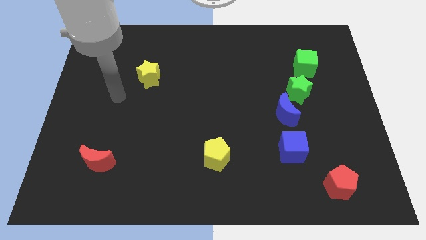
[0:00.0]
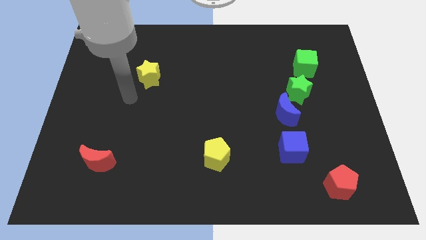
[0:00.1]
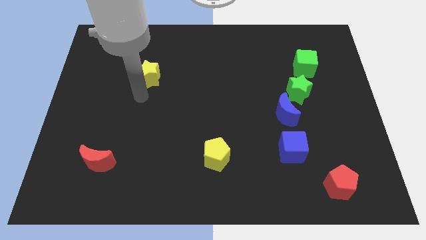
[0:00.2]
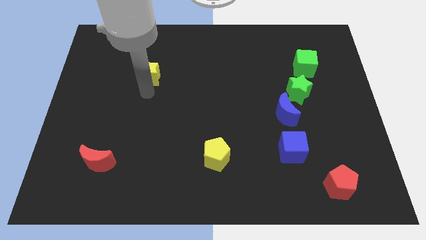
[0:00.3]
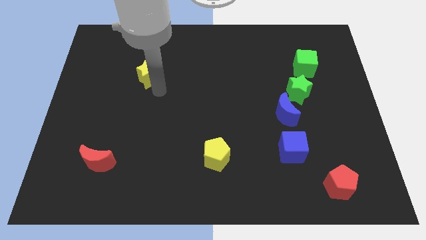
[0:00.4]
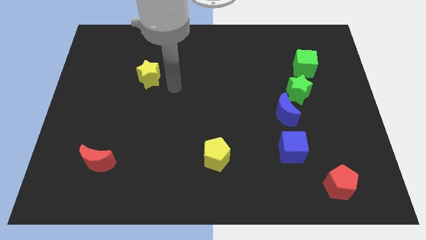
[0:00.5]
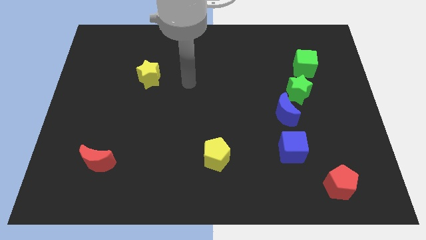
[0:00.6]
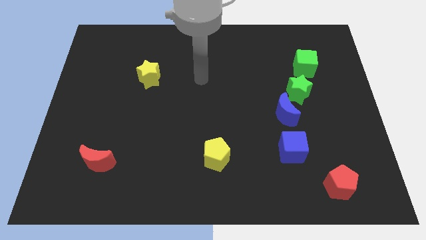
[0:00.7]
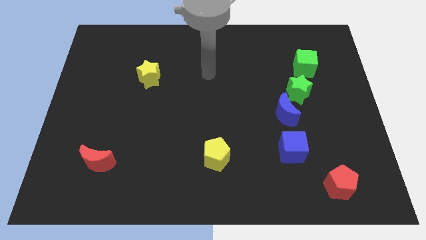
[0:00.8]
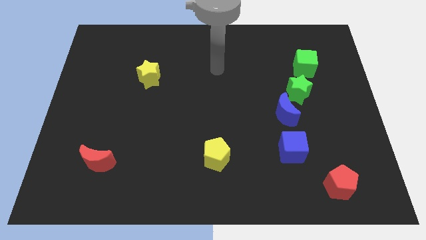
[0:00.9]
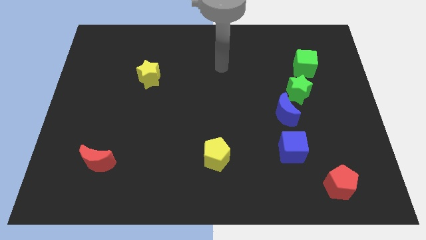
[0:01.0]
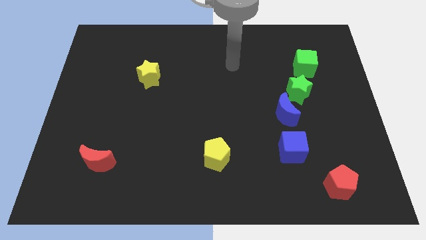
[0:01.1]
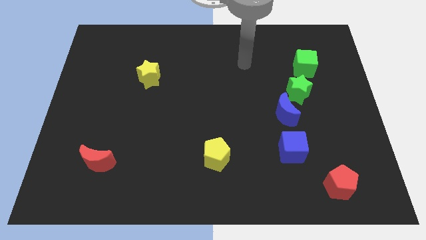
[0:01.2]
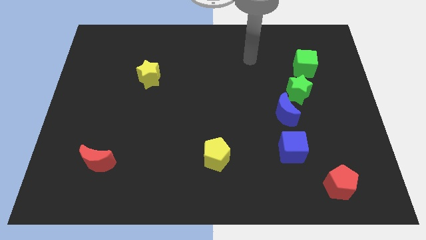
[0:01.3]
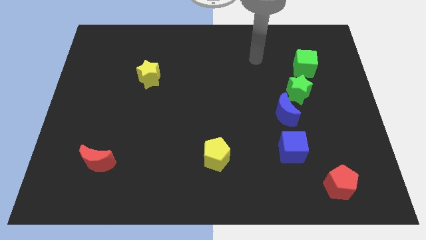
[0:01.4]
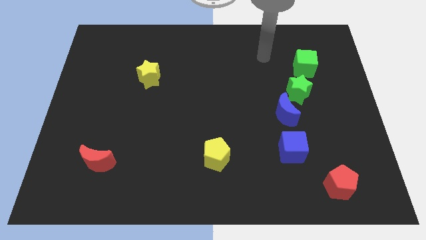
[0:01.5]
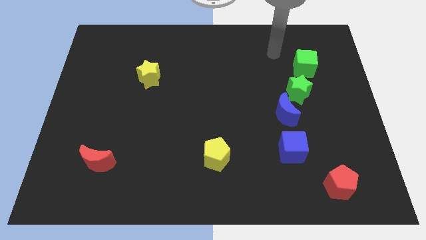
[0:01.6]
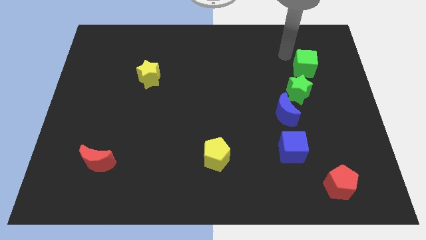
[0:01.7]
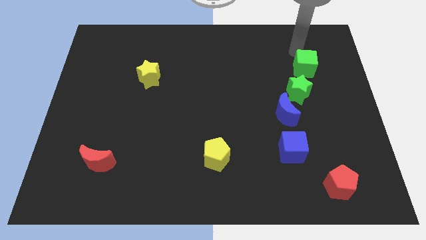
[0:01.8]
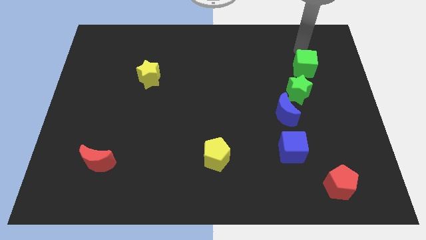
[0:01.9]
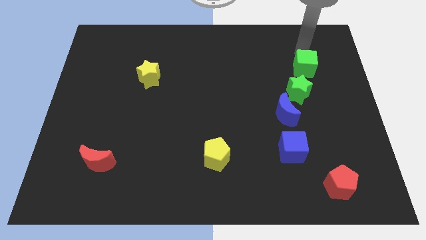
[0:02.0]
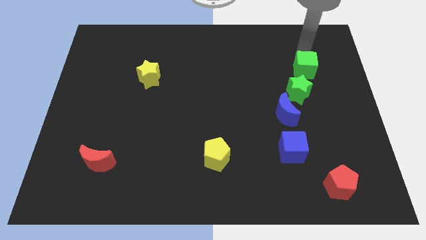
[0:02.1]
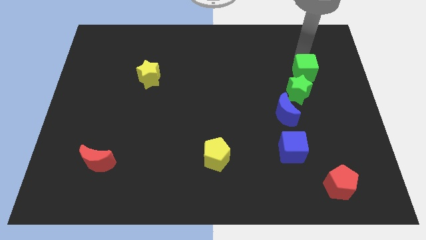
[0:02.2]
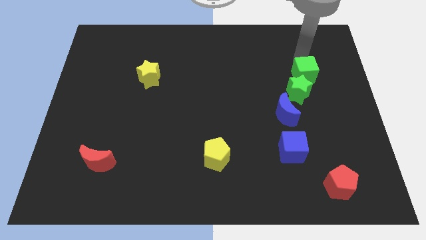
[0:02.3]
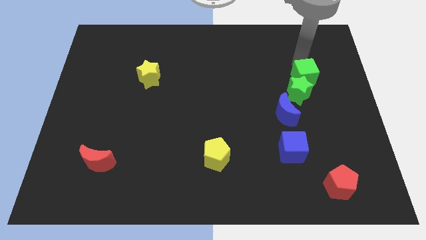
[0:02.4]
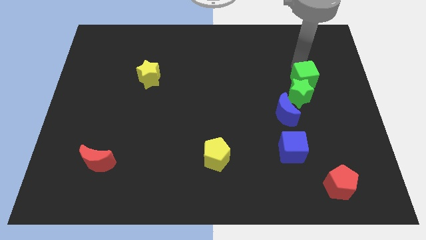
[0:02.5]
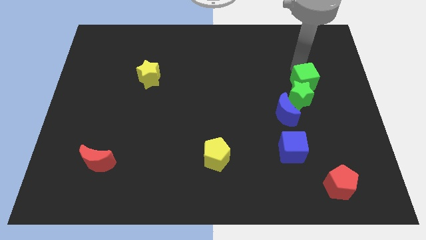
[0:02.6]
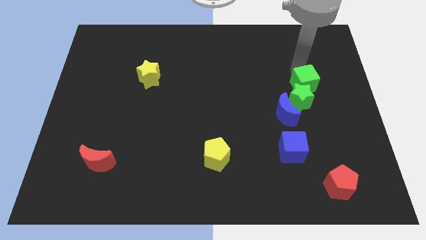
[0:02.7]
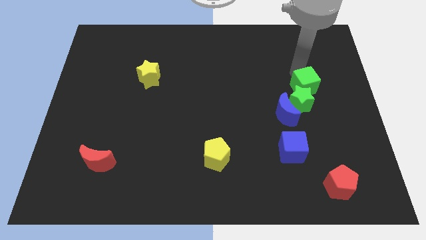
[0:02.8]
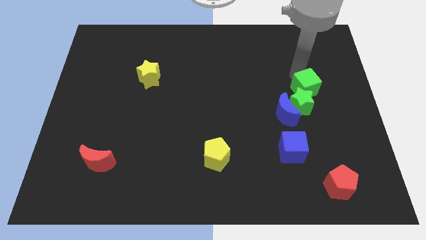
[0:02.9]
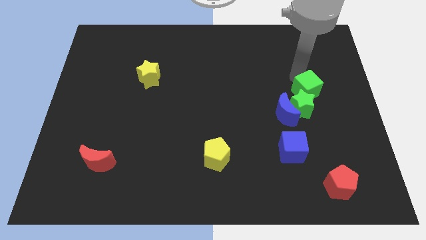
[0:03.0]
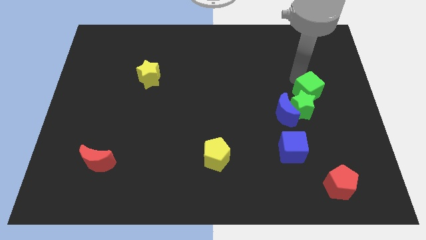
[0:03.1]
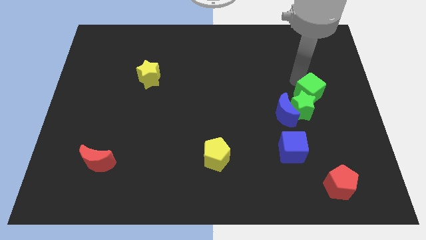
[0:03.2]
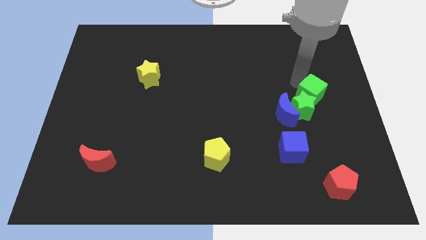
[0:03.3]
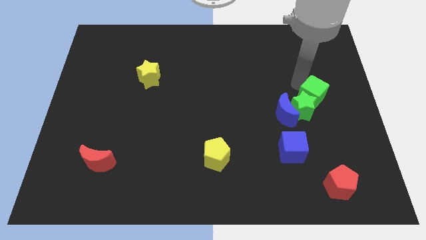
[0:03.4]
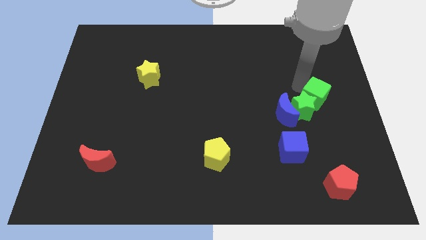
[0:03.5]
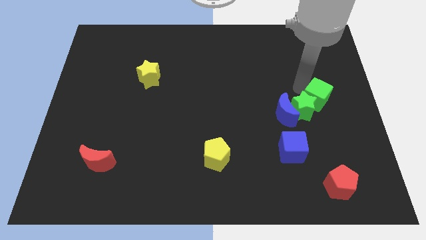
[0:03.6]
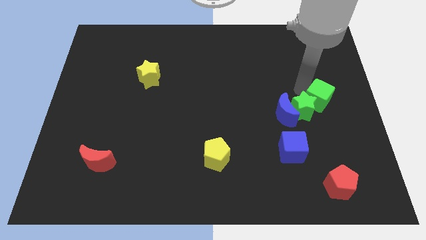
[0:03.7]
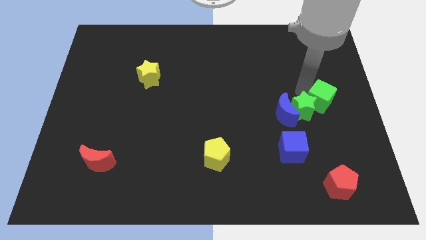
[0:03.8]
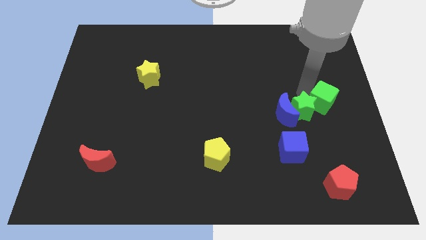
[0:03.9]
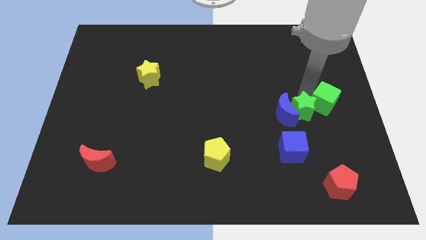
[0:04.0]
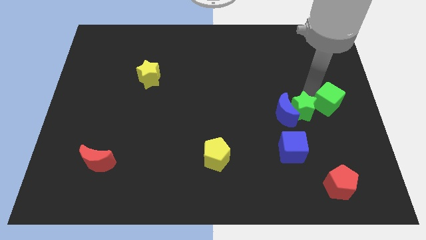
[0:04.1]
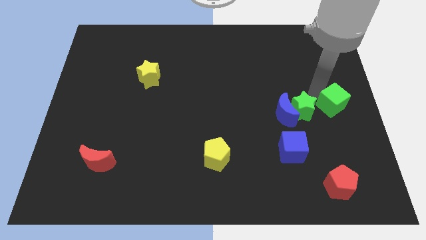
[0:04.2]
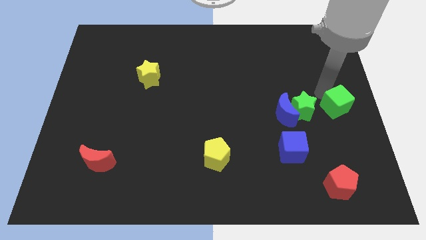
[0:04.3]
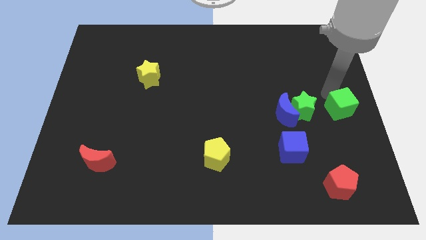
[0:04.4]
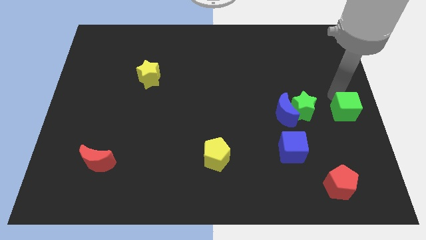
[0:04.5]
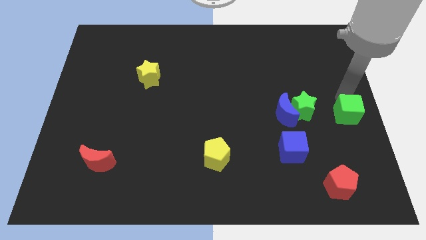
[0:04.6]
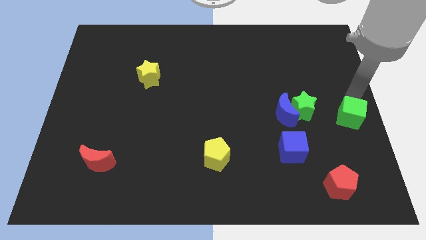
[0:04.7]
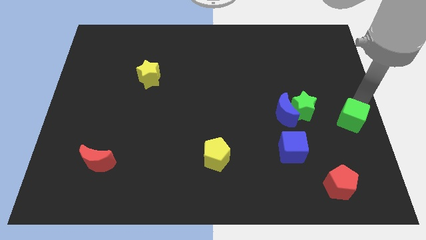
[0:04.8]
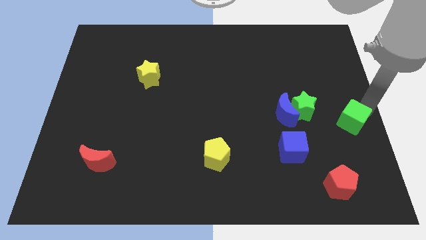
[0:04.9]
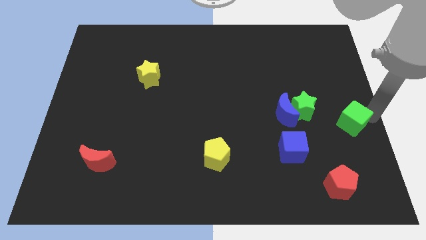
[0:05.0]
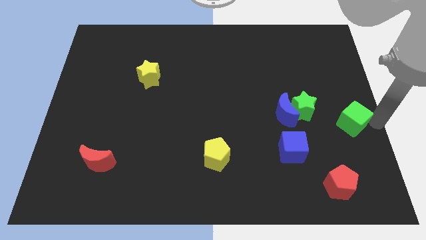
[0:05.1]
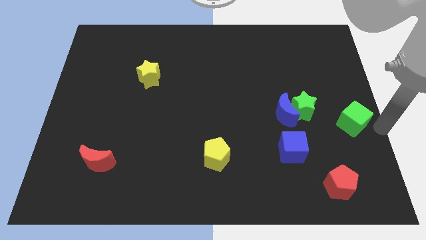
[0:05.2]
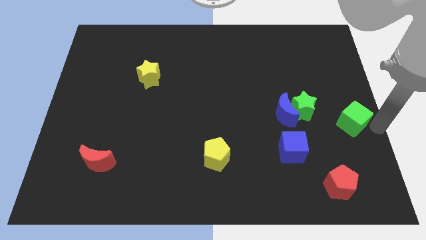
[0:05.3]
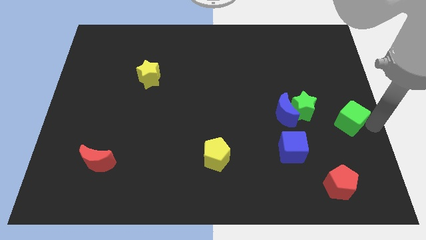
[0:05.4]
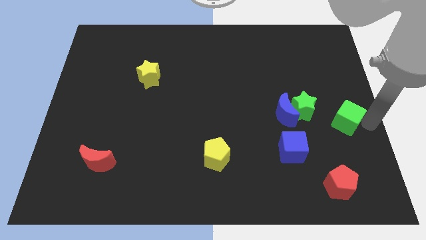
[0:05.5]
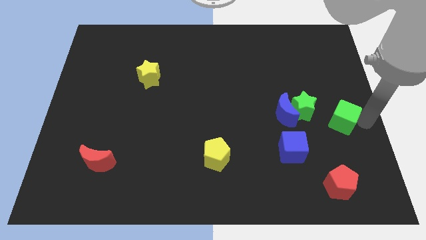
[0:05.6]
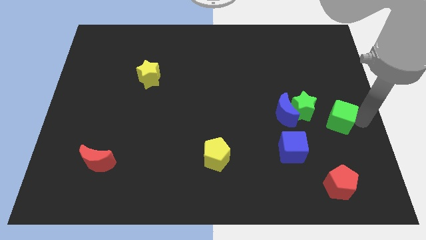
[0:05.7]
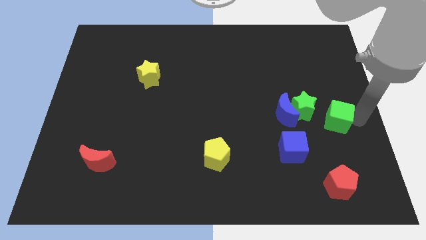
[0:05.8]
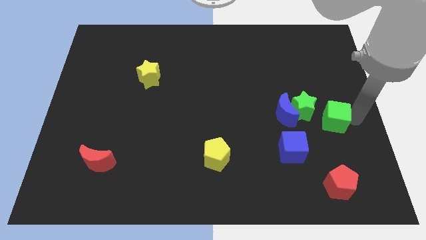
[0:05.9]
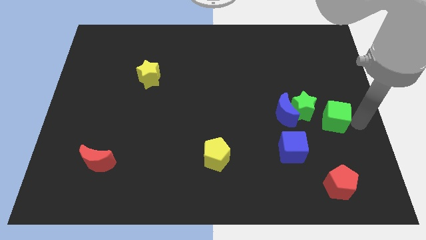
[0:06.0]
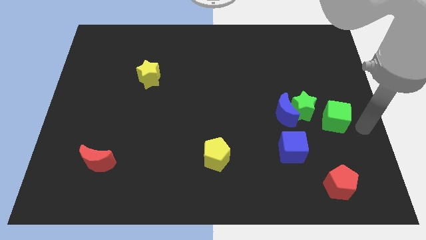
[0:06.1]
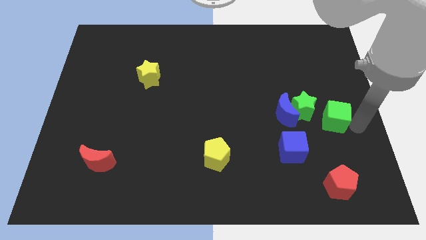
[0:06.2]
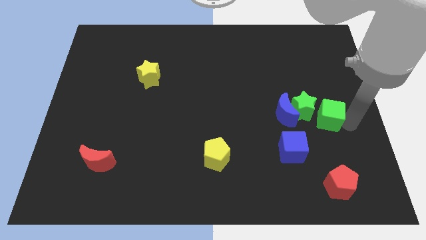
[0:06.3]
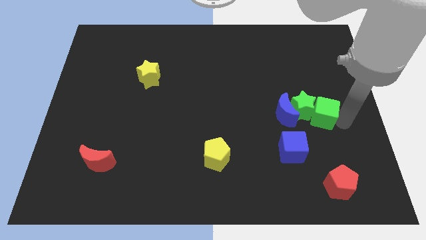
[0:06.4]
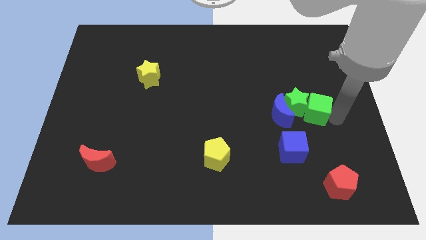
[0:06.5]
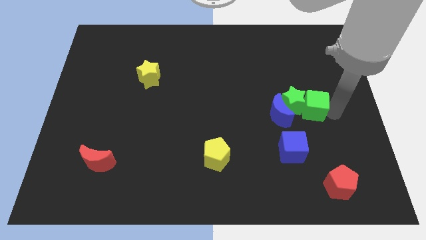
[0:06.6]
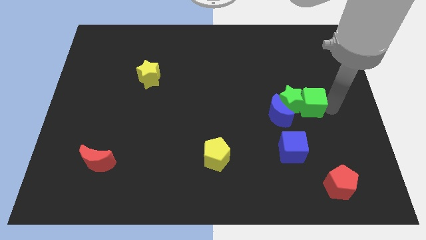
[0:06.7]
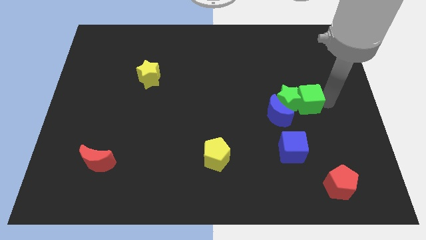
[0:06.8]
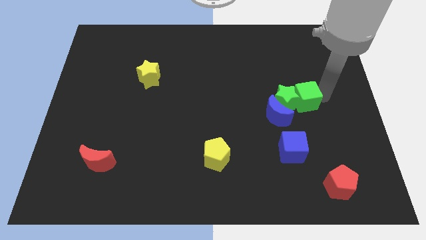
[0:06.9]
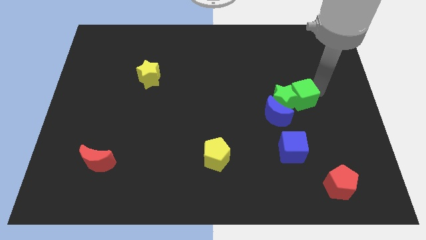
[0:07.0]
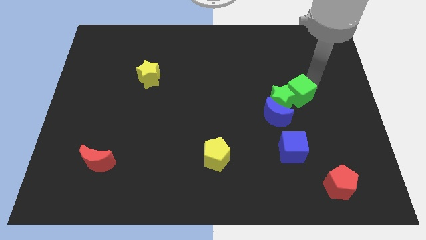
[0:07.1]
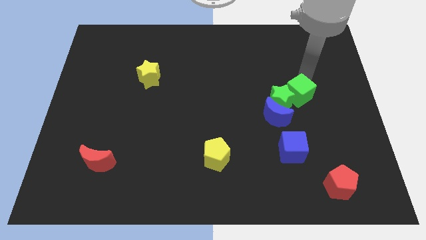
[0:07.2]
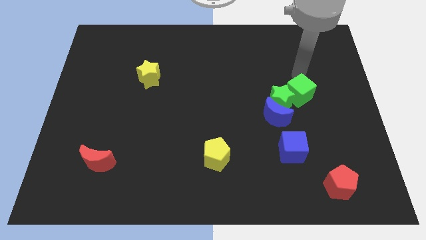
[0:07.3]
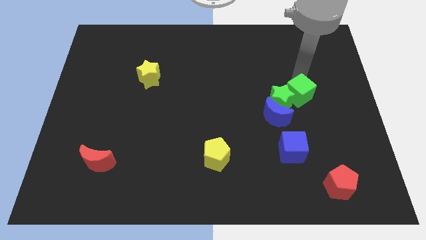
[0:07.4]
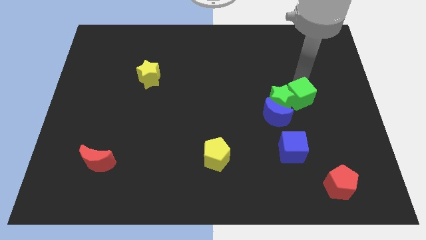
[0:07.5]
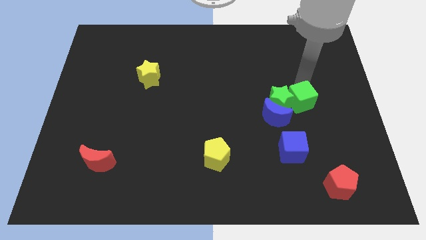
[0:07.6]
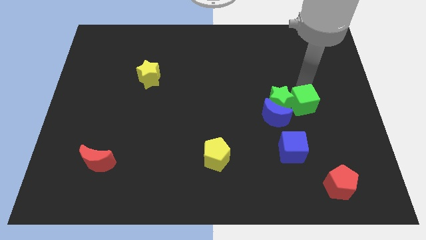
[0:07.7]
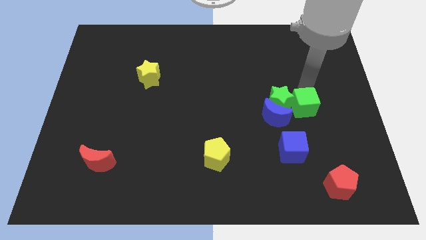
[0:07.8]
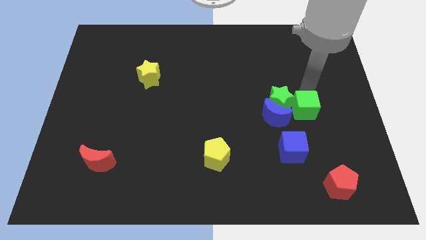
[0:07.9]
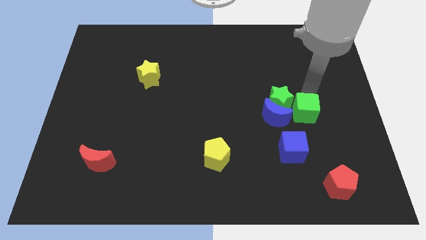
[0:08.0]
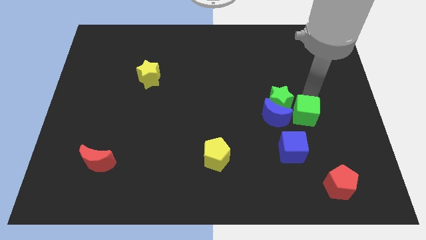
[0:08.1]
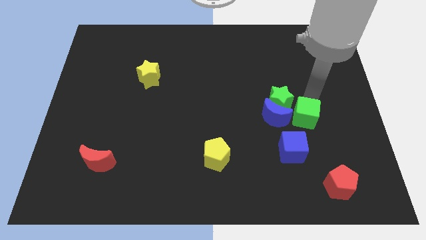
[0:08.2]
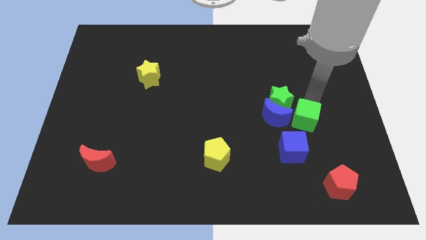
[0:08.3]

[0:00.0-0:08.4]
put the green cube to the bottom right side of the blue moon
